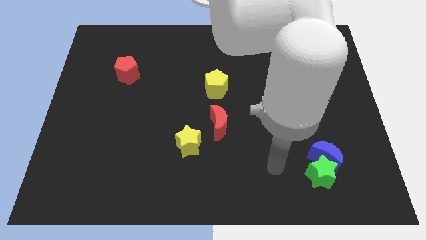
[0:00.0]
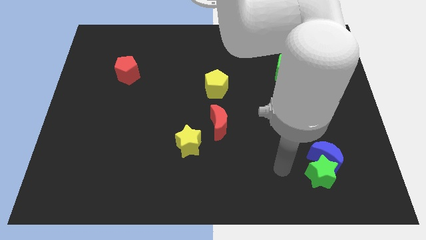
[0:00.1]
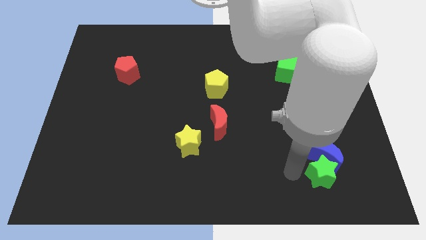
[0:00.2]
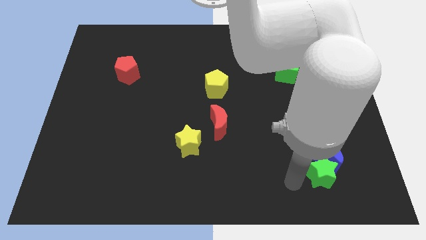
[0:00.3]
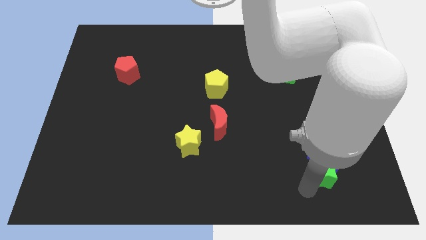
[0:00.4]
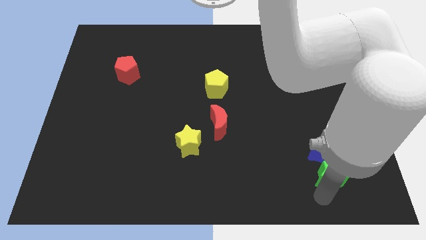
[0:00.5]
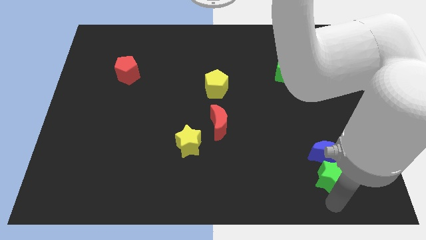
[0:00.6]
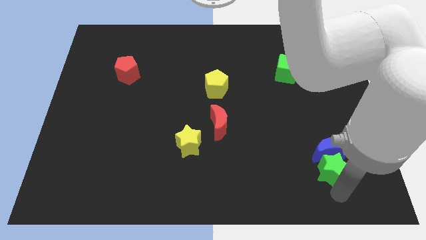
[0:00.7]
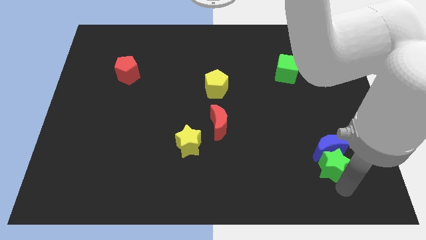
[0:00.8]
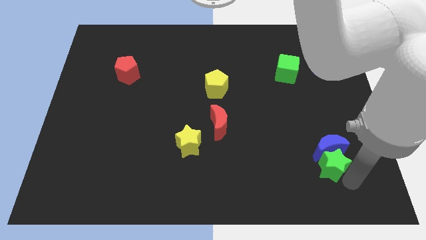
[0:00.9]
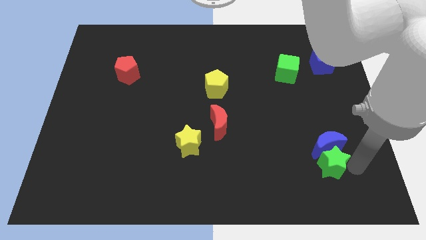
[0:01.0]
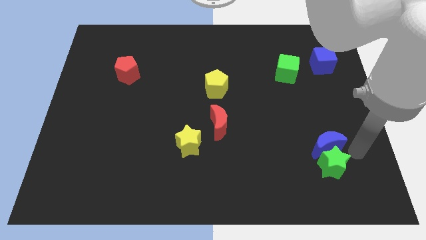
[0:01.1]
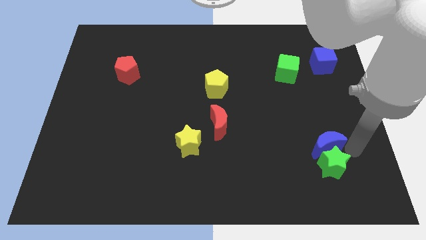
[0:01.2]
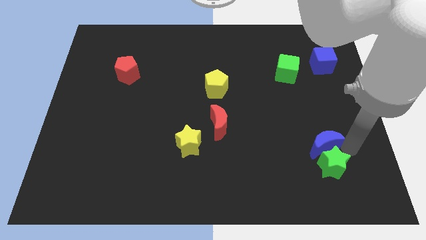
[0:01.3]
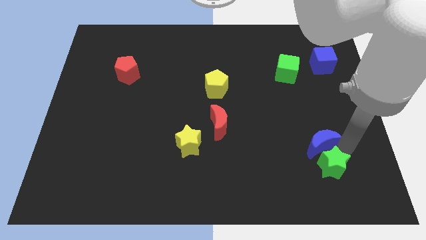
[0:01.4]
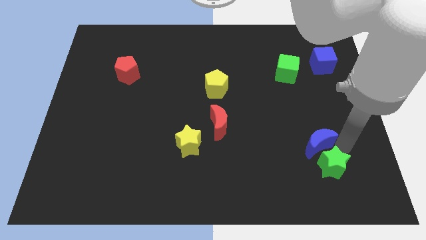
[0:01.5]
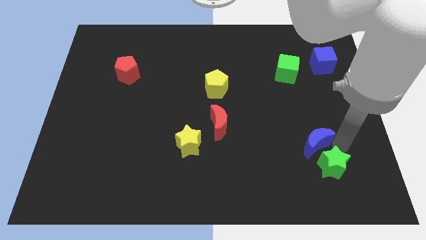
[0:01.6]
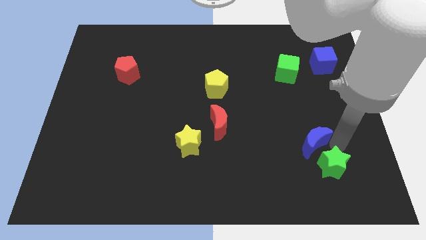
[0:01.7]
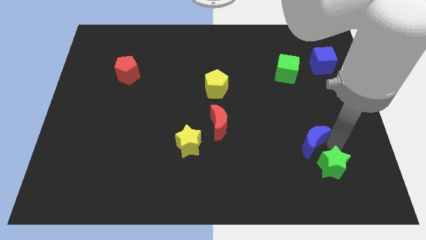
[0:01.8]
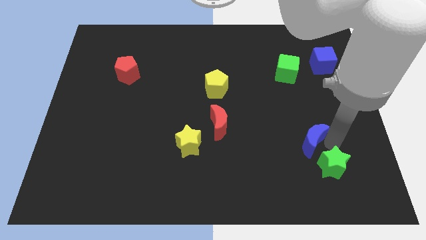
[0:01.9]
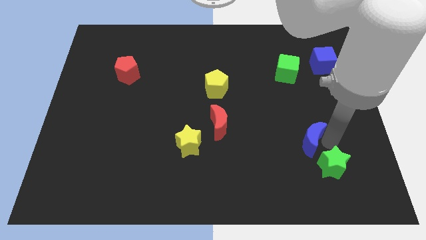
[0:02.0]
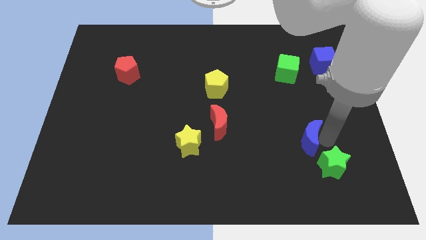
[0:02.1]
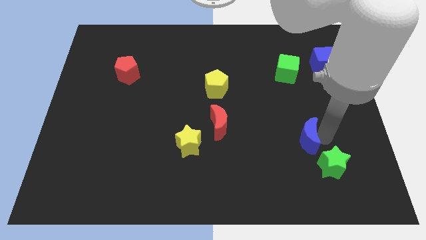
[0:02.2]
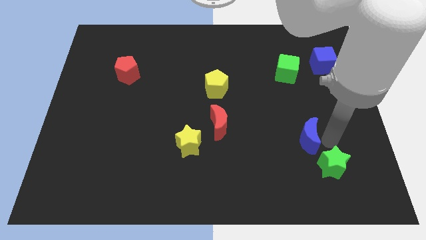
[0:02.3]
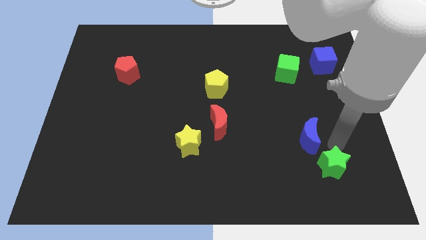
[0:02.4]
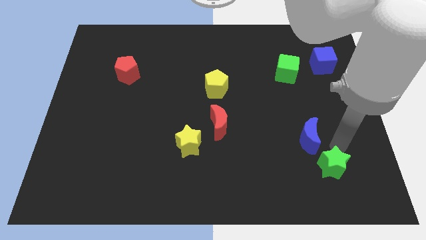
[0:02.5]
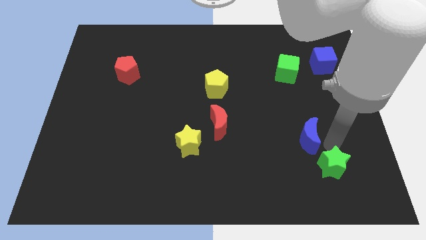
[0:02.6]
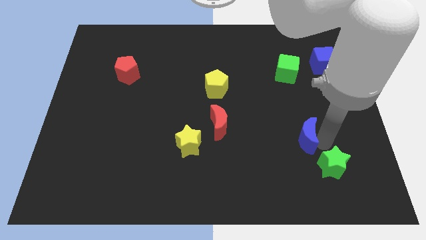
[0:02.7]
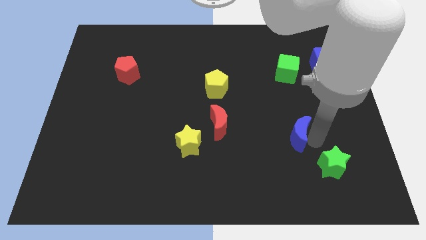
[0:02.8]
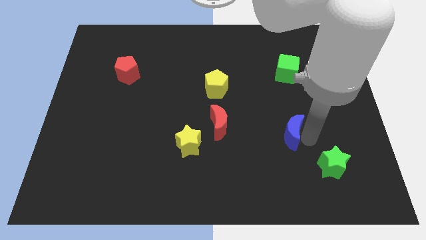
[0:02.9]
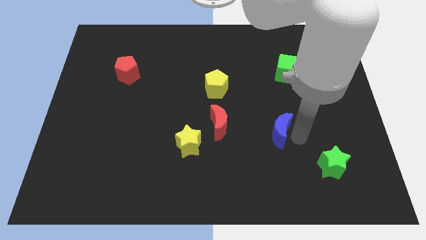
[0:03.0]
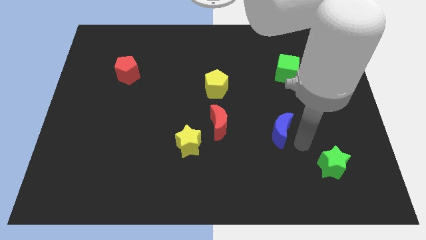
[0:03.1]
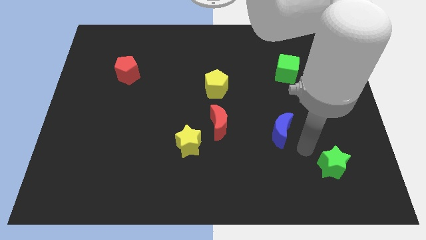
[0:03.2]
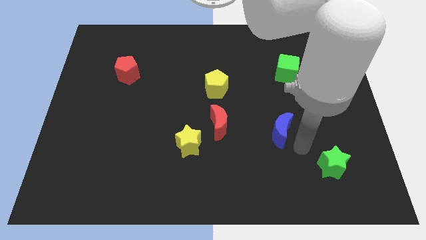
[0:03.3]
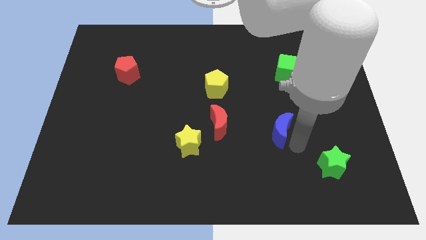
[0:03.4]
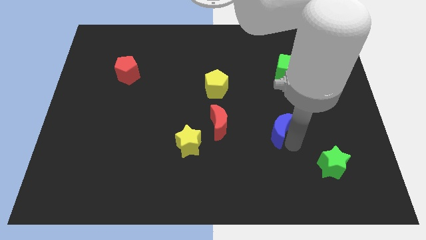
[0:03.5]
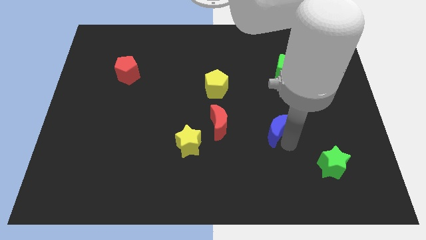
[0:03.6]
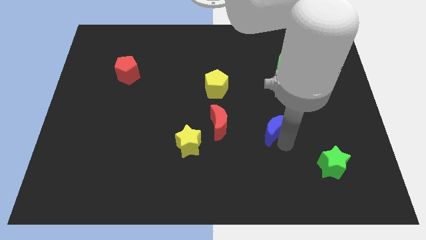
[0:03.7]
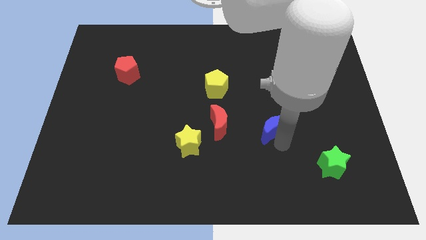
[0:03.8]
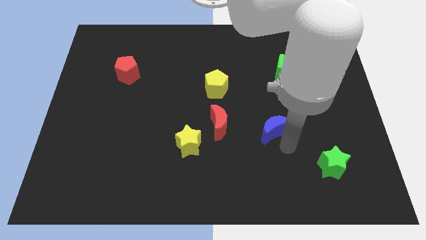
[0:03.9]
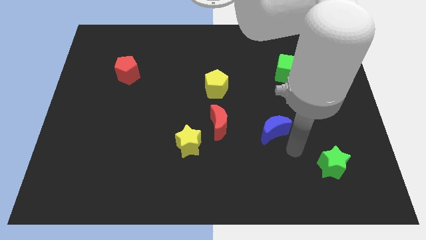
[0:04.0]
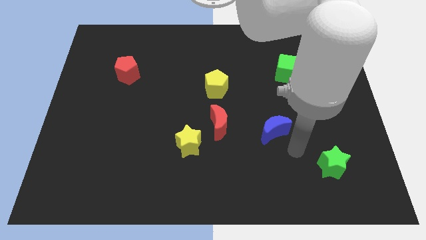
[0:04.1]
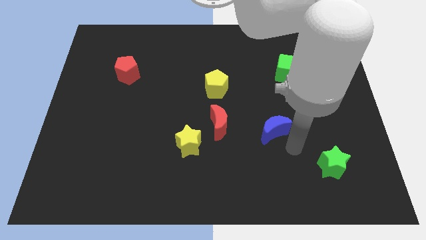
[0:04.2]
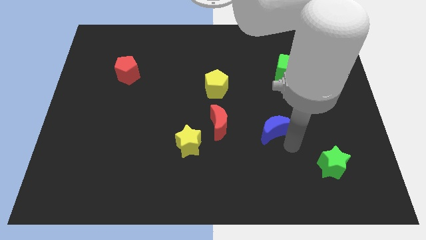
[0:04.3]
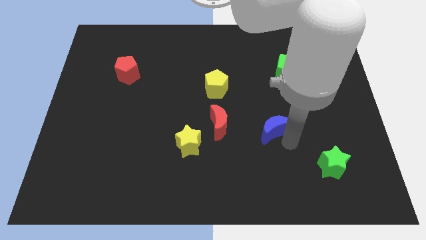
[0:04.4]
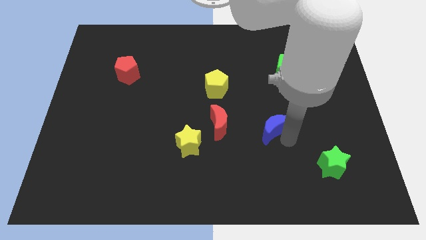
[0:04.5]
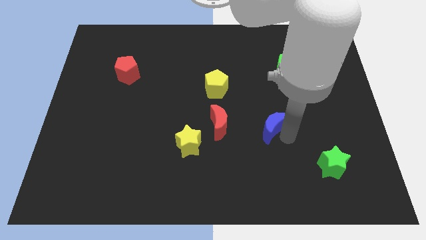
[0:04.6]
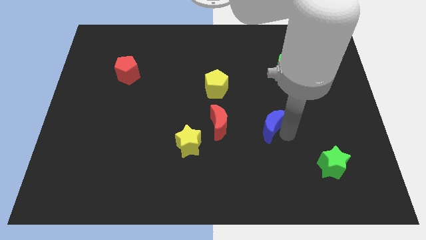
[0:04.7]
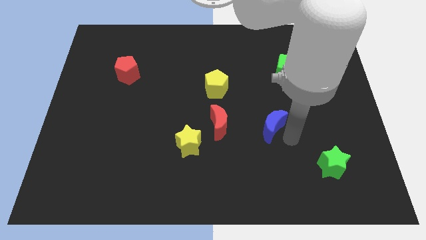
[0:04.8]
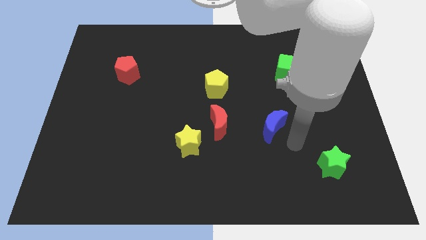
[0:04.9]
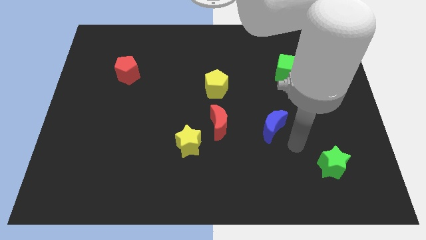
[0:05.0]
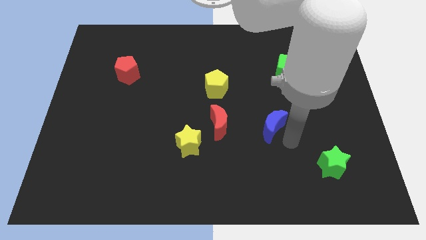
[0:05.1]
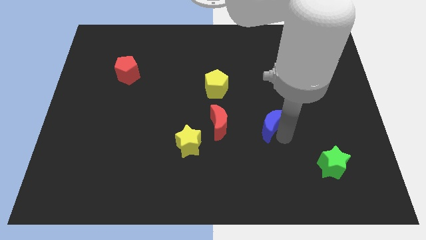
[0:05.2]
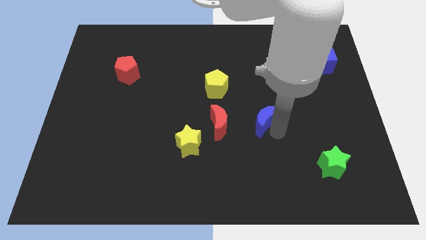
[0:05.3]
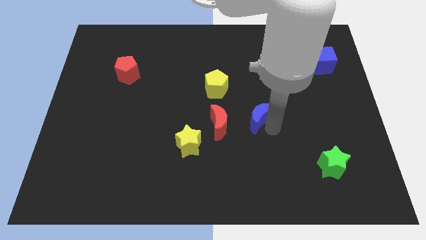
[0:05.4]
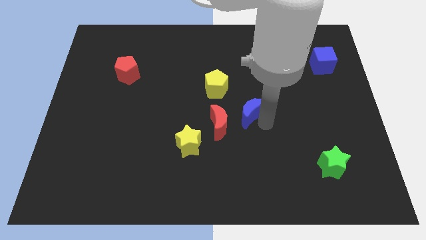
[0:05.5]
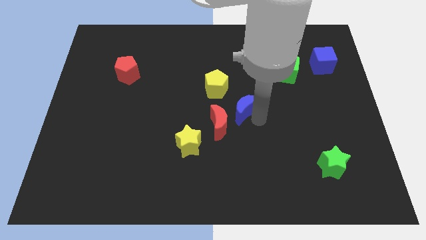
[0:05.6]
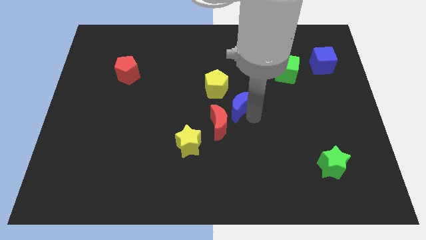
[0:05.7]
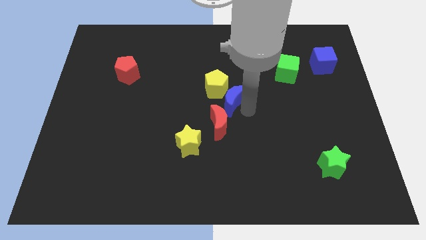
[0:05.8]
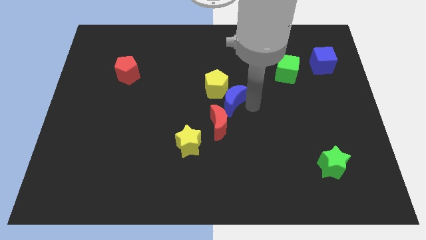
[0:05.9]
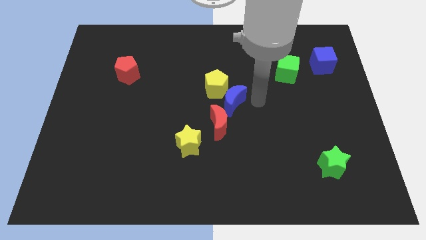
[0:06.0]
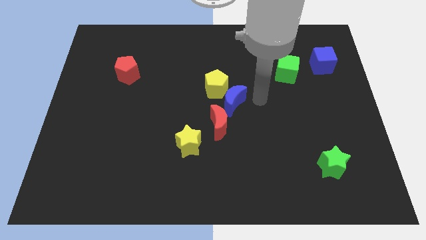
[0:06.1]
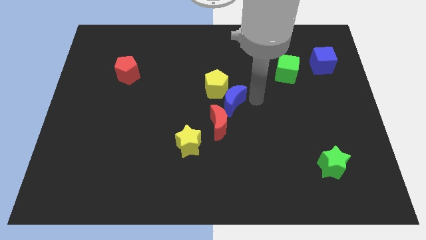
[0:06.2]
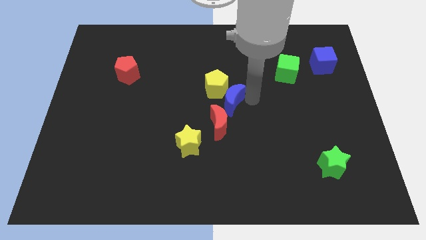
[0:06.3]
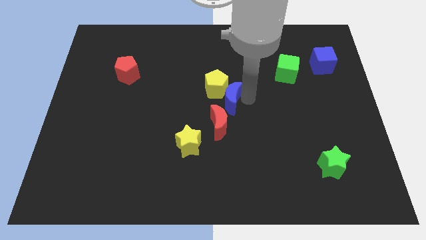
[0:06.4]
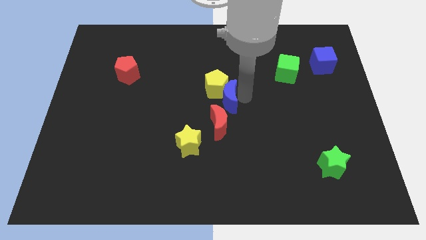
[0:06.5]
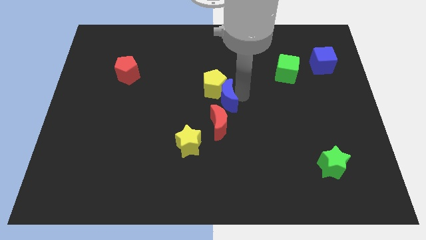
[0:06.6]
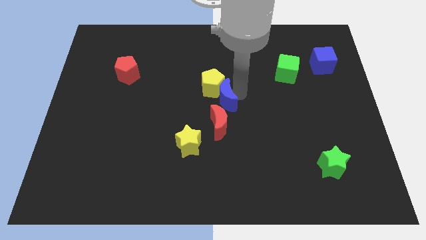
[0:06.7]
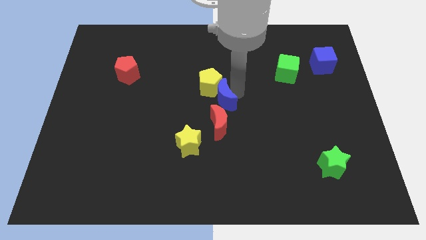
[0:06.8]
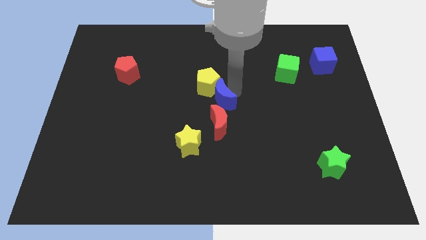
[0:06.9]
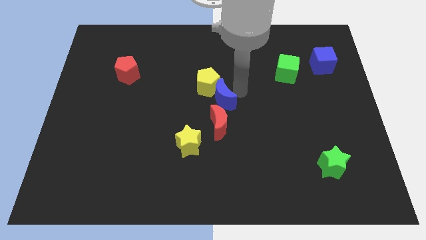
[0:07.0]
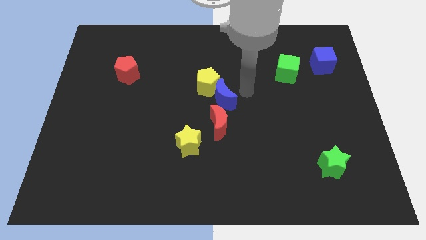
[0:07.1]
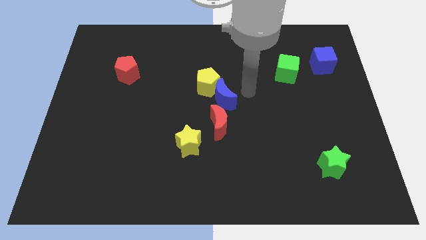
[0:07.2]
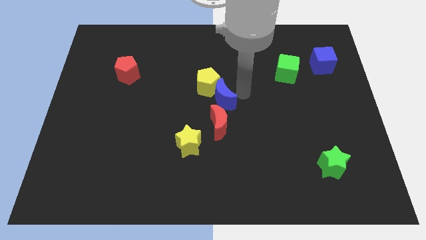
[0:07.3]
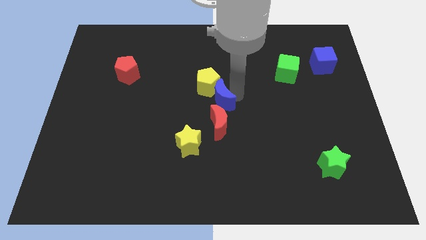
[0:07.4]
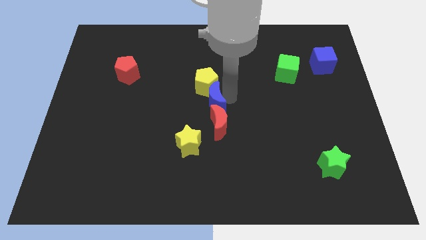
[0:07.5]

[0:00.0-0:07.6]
push the blue moon diagonally up and to the left of the red moon
